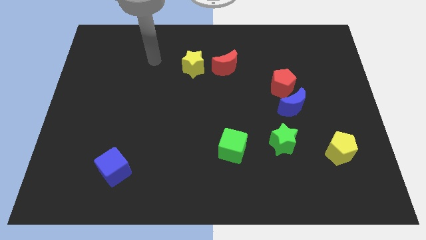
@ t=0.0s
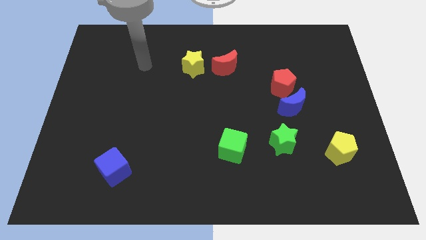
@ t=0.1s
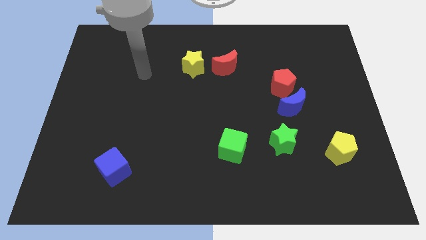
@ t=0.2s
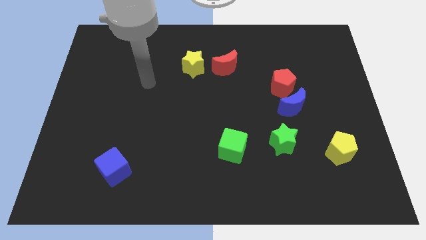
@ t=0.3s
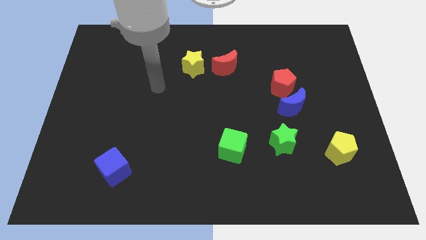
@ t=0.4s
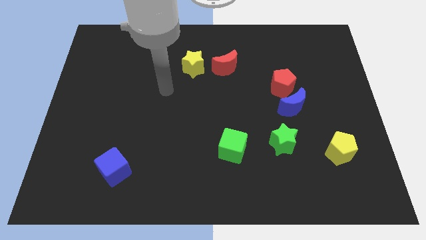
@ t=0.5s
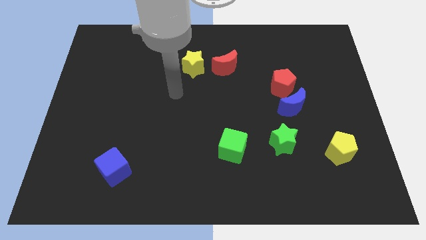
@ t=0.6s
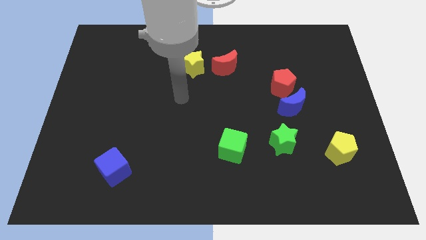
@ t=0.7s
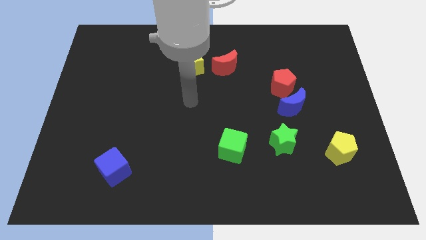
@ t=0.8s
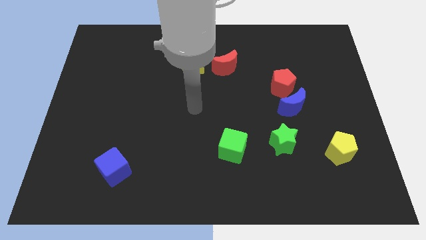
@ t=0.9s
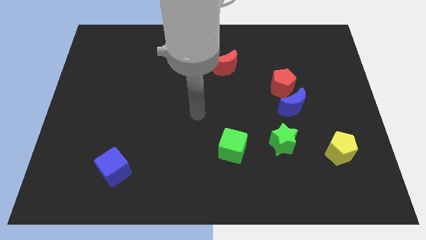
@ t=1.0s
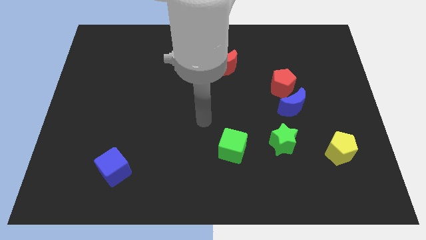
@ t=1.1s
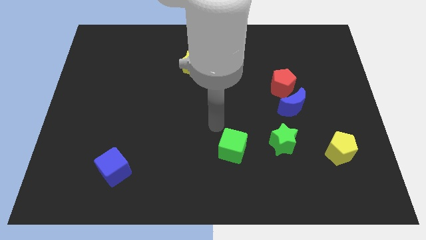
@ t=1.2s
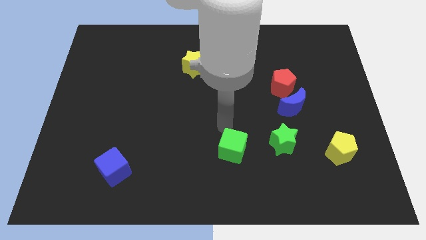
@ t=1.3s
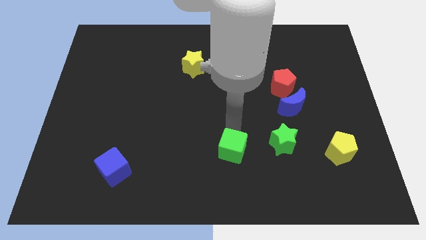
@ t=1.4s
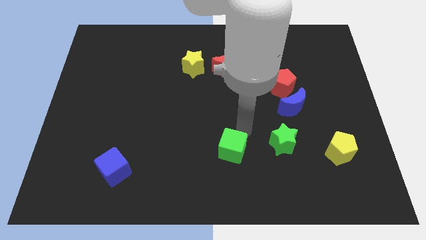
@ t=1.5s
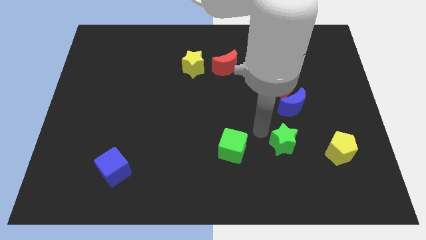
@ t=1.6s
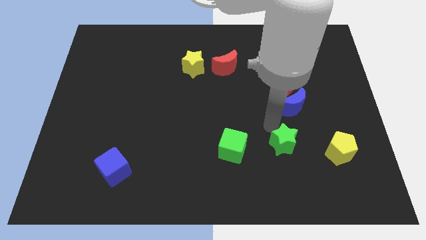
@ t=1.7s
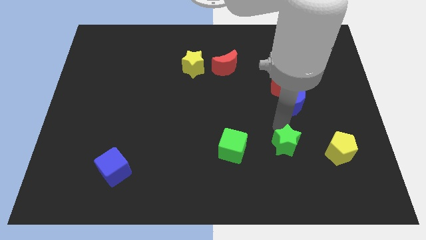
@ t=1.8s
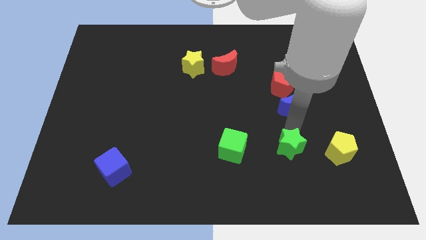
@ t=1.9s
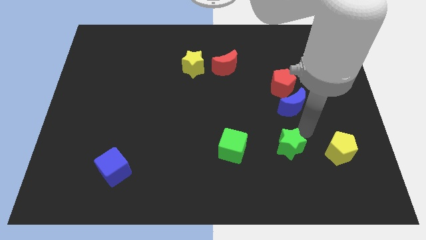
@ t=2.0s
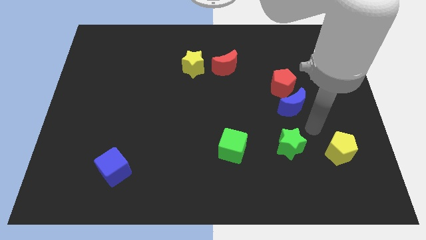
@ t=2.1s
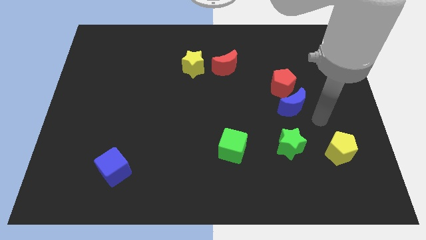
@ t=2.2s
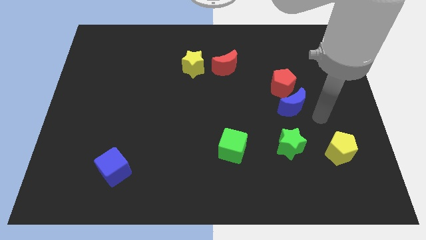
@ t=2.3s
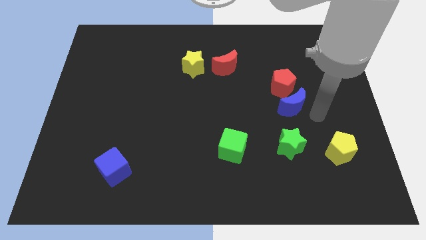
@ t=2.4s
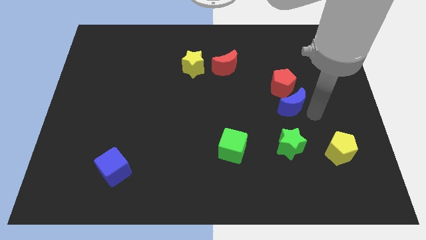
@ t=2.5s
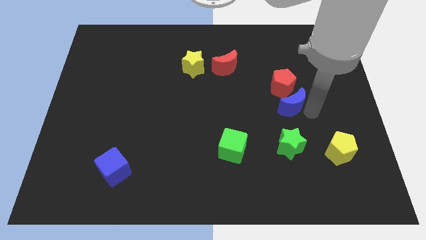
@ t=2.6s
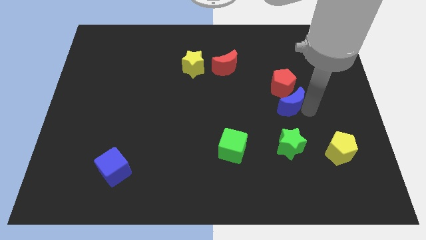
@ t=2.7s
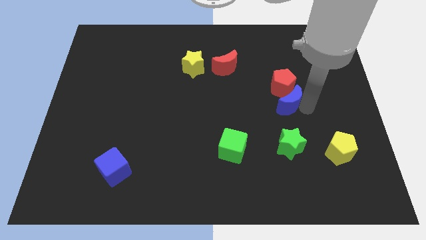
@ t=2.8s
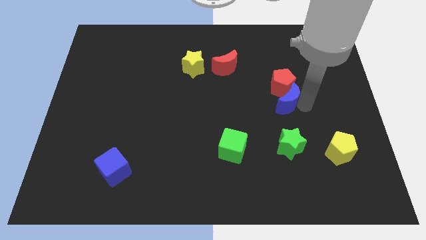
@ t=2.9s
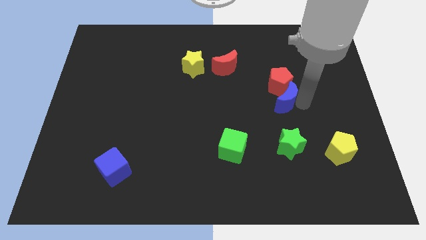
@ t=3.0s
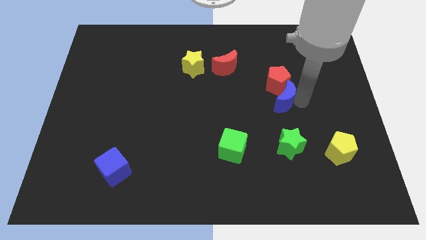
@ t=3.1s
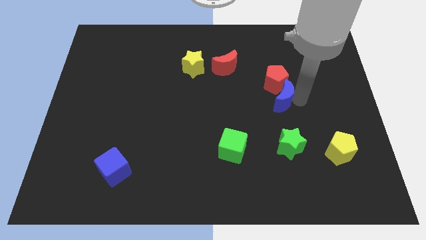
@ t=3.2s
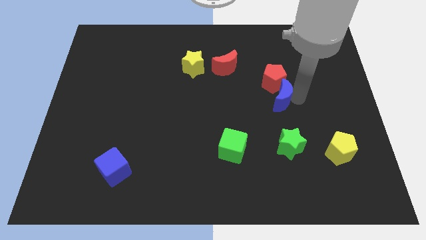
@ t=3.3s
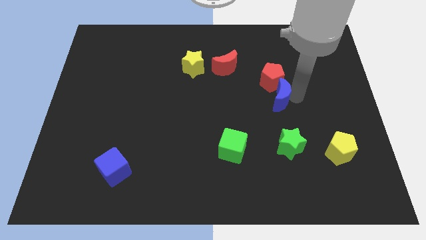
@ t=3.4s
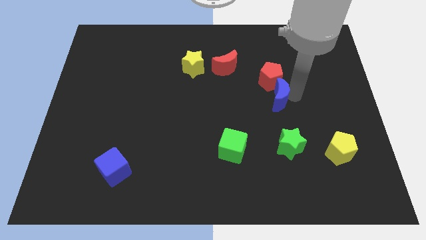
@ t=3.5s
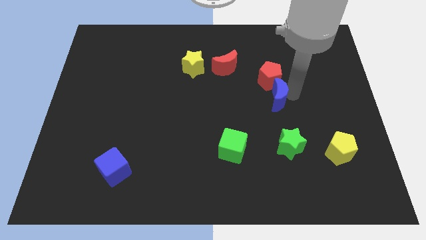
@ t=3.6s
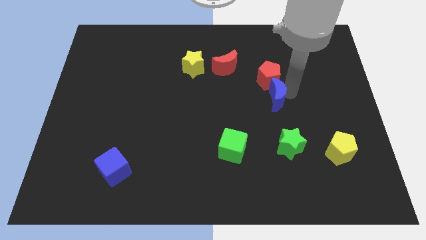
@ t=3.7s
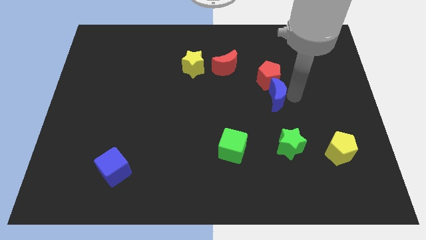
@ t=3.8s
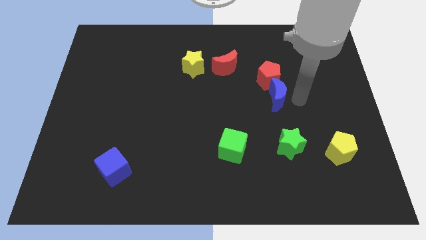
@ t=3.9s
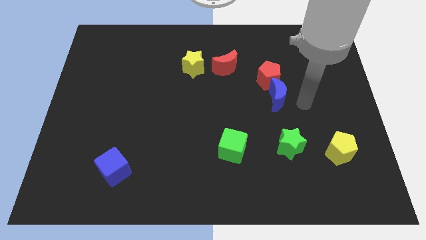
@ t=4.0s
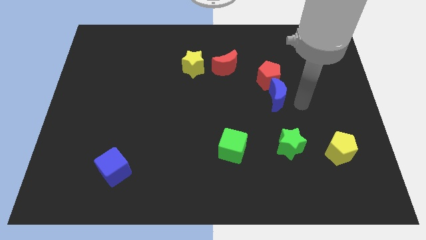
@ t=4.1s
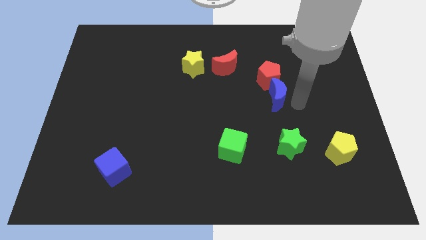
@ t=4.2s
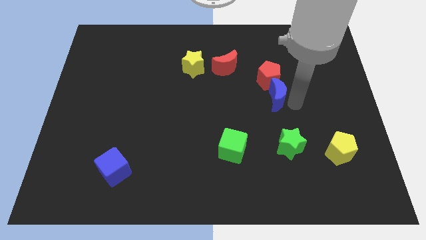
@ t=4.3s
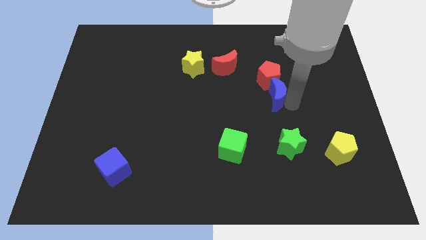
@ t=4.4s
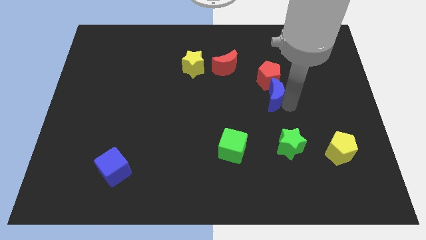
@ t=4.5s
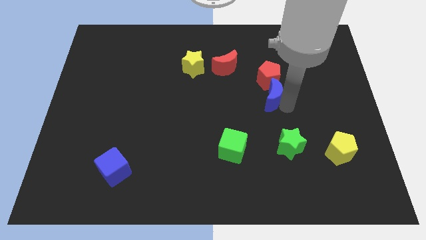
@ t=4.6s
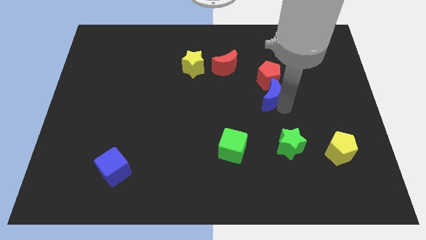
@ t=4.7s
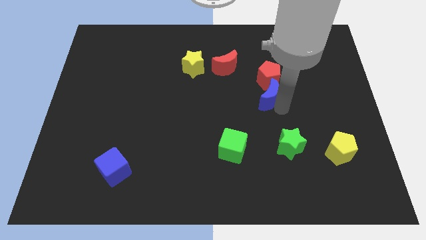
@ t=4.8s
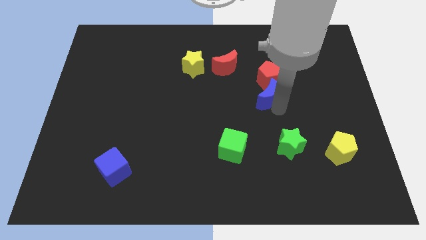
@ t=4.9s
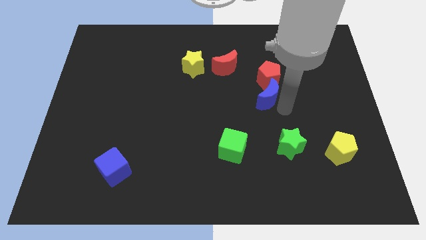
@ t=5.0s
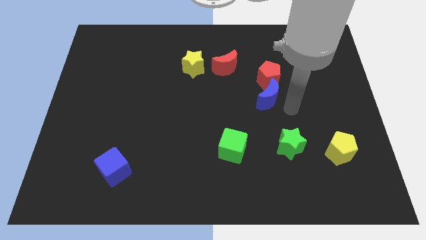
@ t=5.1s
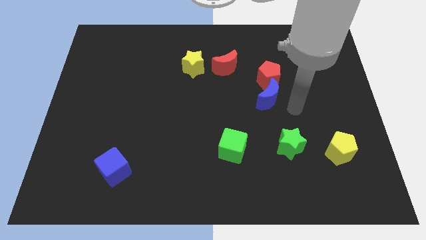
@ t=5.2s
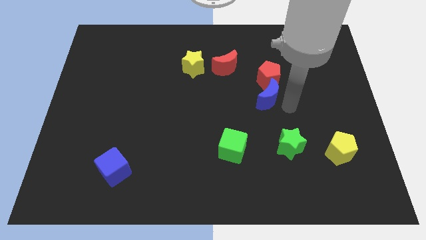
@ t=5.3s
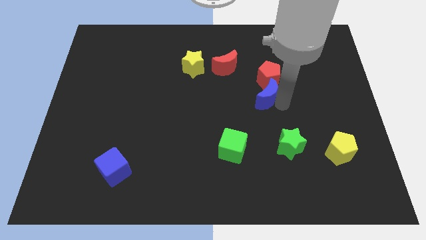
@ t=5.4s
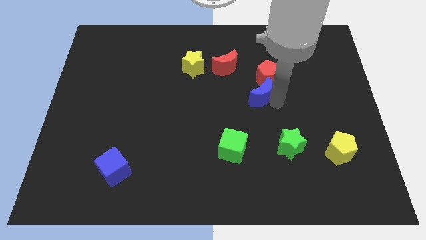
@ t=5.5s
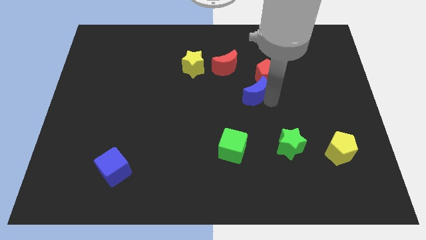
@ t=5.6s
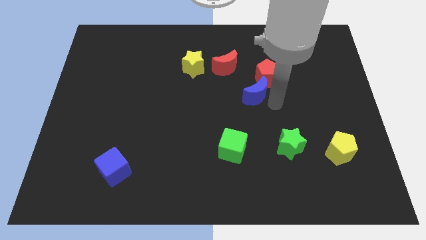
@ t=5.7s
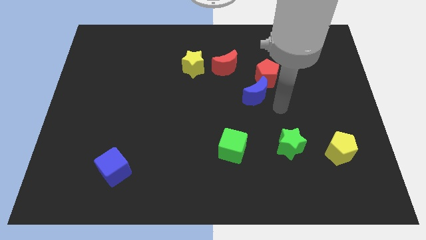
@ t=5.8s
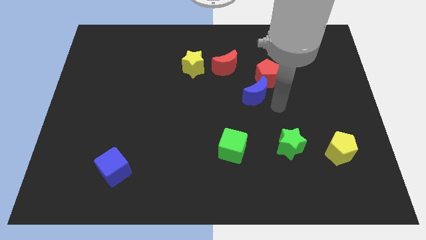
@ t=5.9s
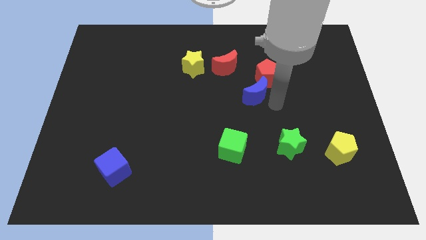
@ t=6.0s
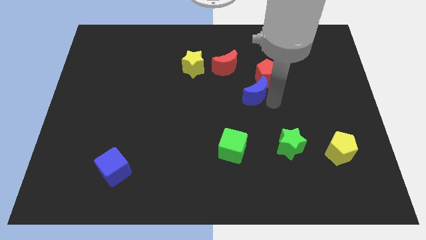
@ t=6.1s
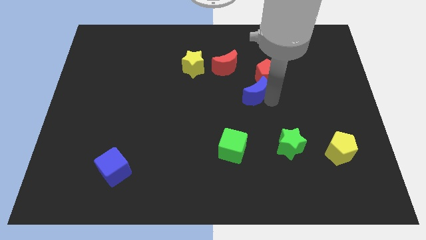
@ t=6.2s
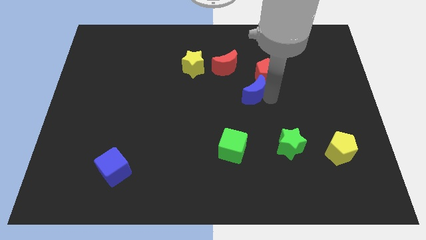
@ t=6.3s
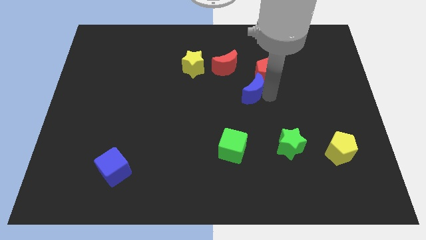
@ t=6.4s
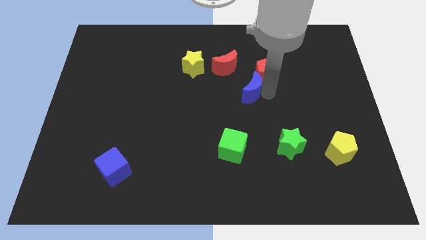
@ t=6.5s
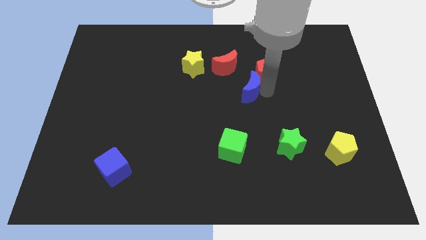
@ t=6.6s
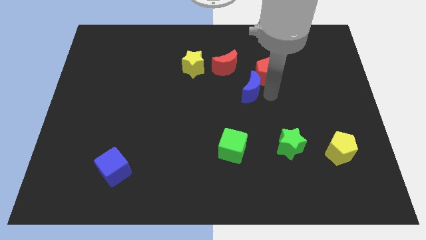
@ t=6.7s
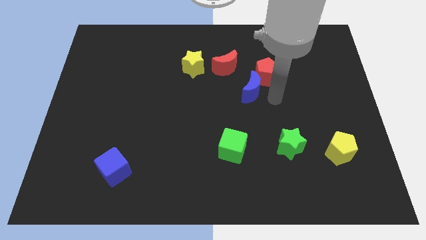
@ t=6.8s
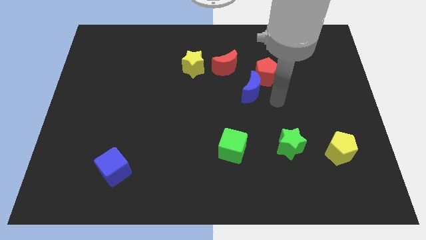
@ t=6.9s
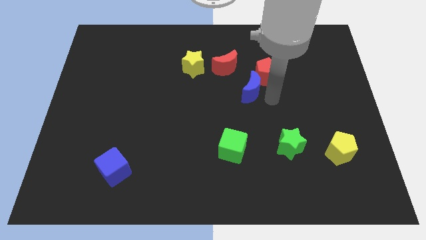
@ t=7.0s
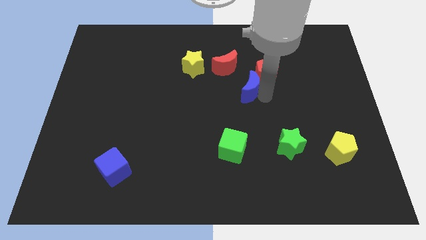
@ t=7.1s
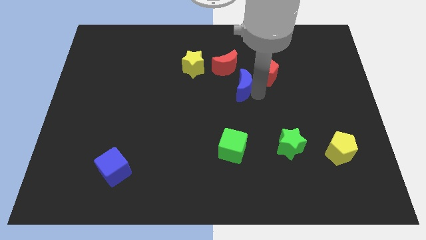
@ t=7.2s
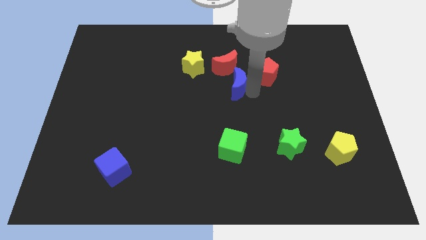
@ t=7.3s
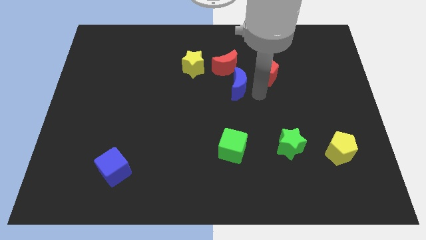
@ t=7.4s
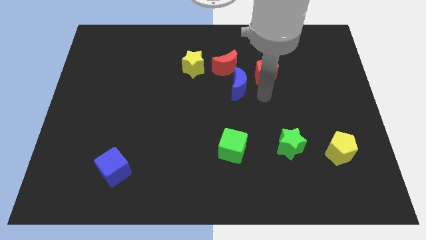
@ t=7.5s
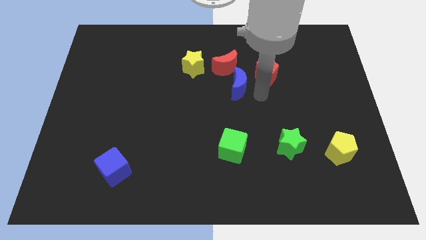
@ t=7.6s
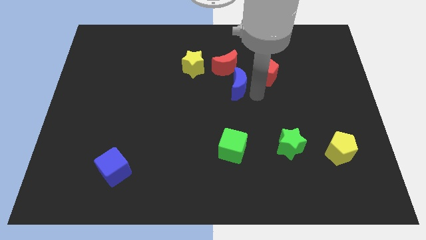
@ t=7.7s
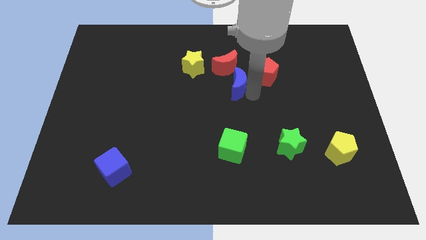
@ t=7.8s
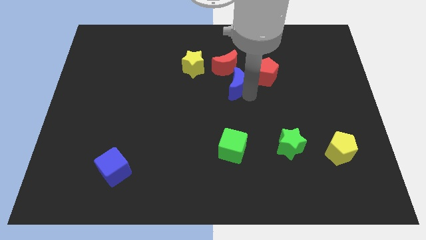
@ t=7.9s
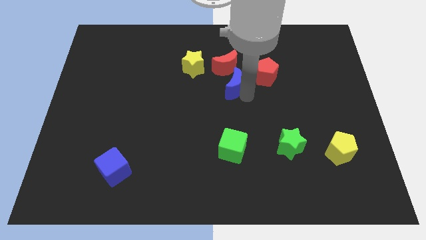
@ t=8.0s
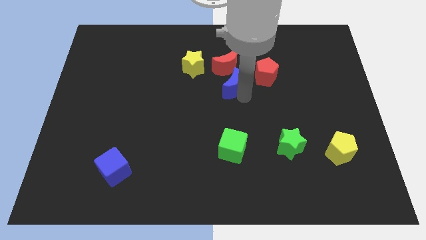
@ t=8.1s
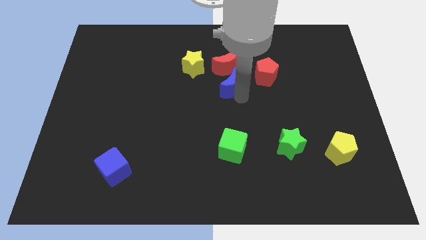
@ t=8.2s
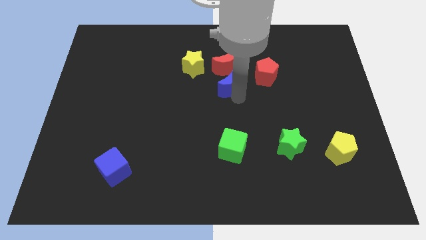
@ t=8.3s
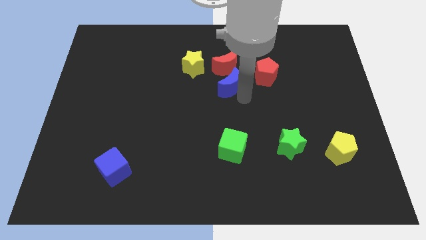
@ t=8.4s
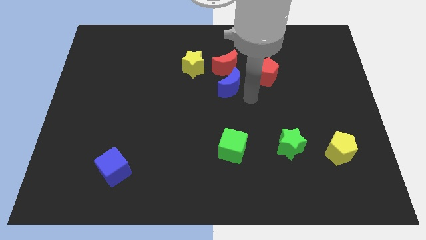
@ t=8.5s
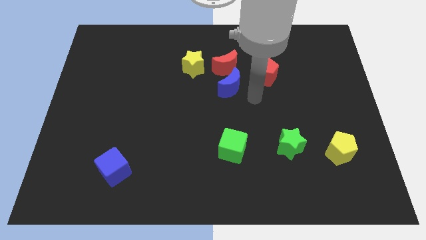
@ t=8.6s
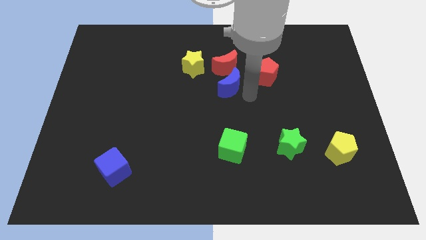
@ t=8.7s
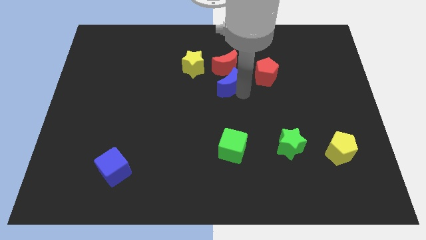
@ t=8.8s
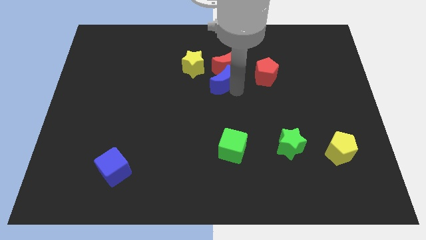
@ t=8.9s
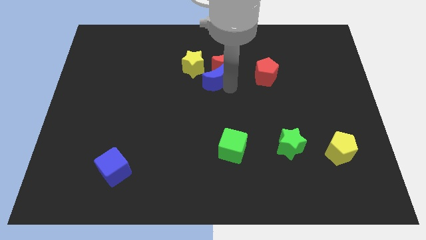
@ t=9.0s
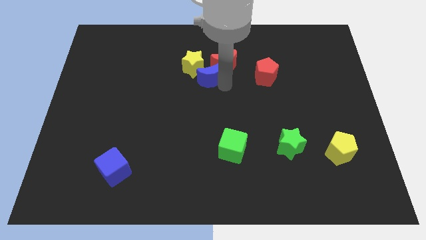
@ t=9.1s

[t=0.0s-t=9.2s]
move the blue moon close to the yellow star
